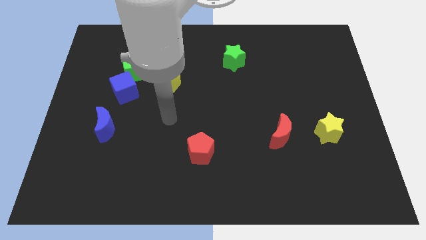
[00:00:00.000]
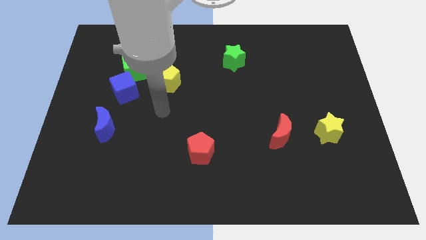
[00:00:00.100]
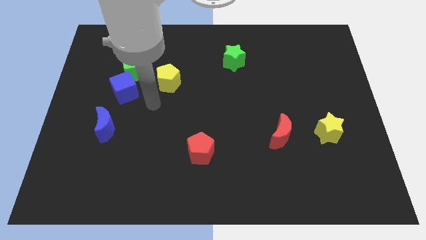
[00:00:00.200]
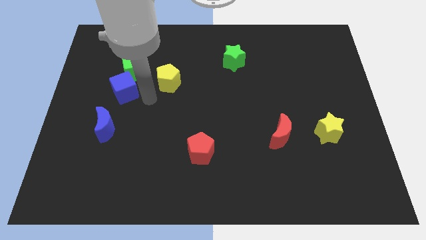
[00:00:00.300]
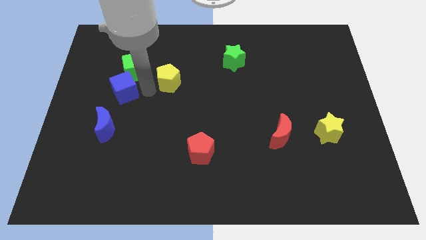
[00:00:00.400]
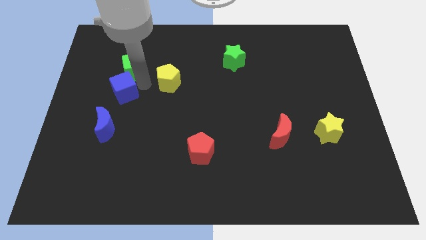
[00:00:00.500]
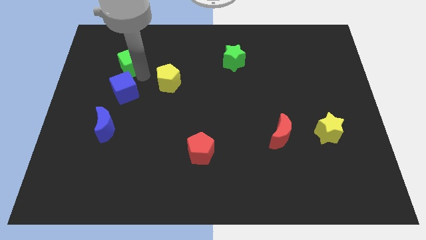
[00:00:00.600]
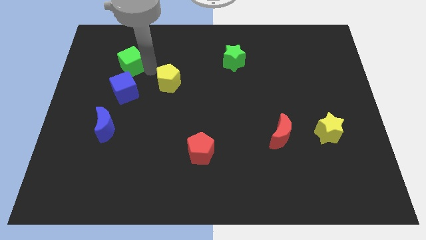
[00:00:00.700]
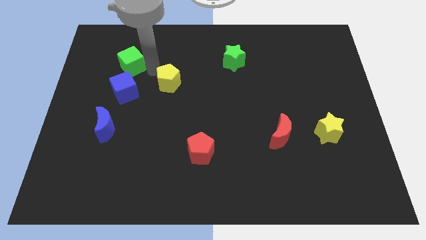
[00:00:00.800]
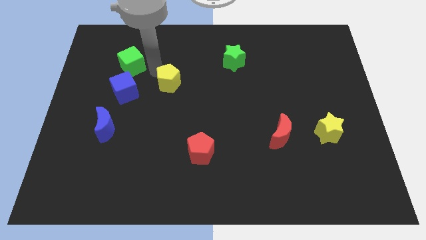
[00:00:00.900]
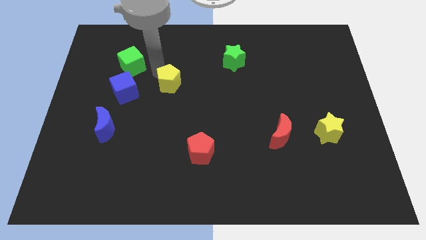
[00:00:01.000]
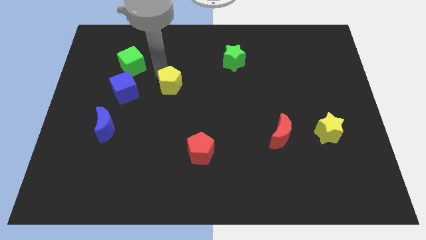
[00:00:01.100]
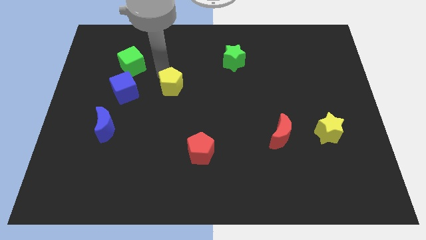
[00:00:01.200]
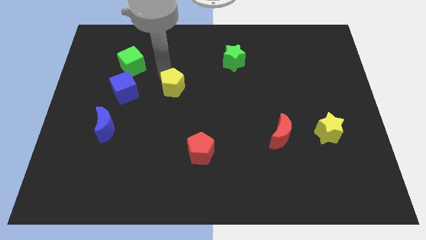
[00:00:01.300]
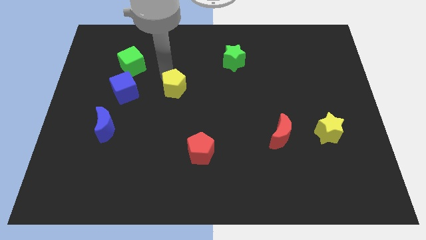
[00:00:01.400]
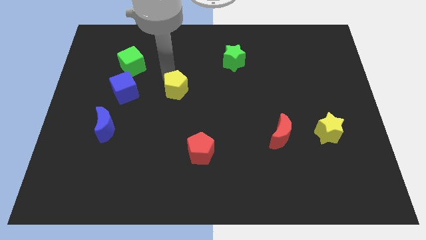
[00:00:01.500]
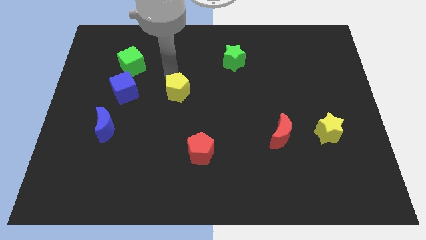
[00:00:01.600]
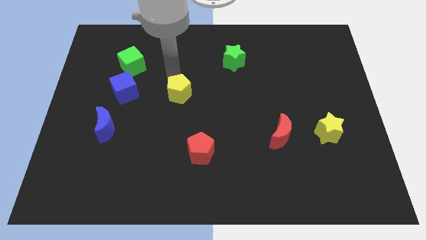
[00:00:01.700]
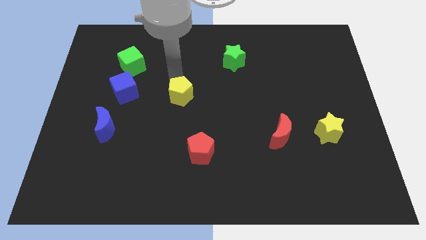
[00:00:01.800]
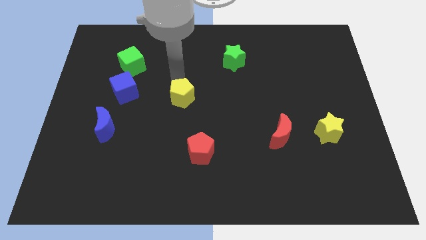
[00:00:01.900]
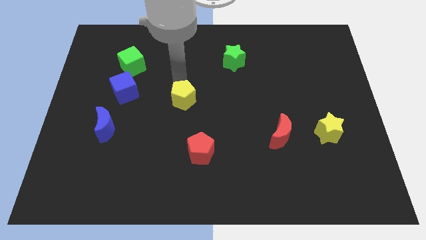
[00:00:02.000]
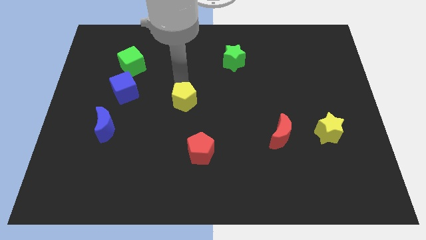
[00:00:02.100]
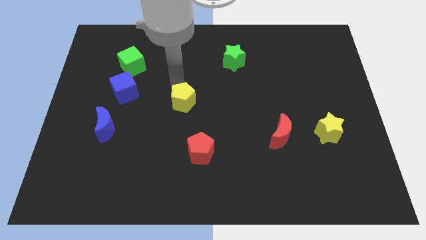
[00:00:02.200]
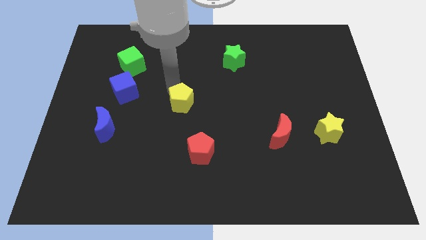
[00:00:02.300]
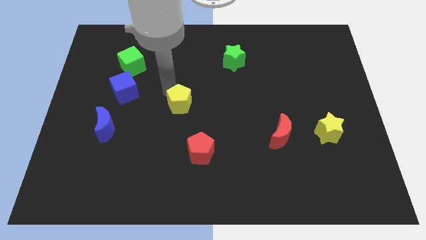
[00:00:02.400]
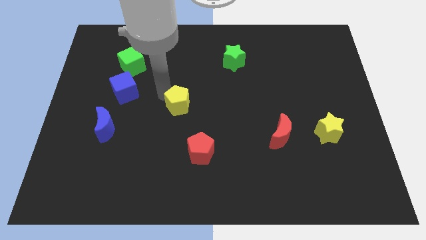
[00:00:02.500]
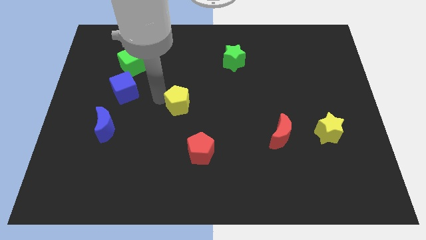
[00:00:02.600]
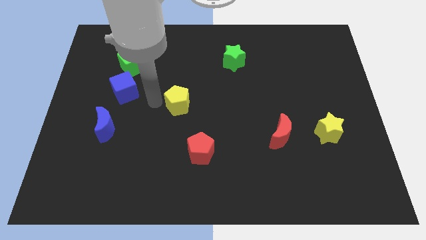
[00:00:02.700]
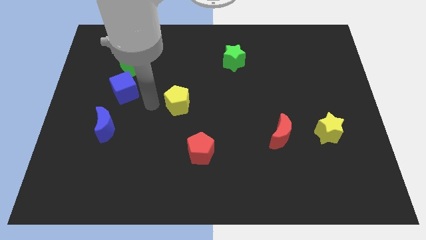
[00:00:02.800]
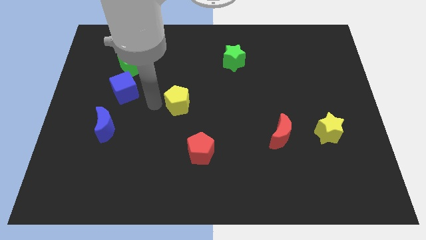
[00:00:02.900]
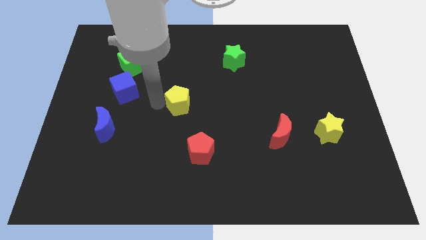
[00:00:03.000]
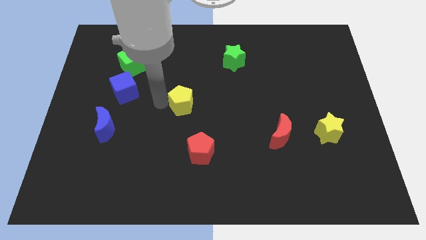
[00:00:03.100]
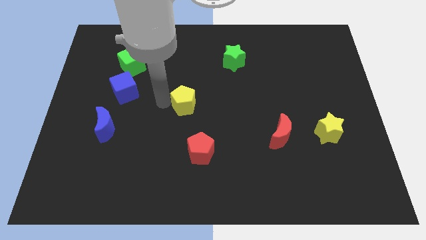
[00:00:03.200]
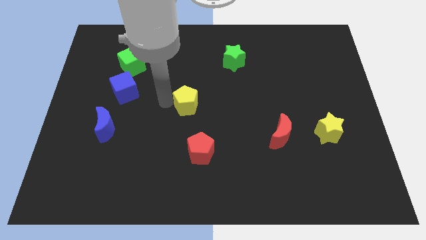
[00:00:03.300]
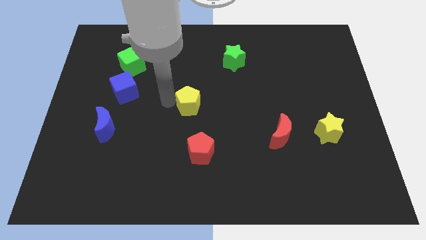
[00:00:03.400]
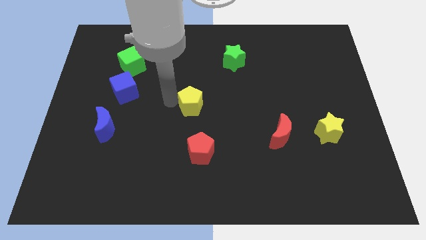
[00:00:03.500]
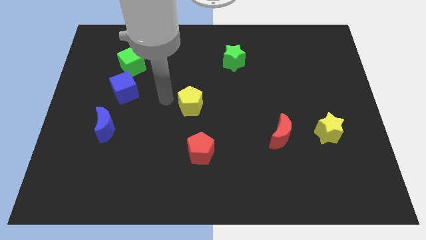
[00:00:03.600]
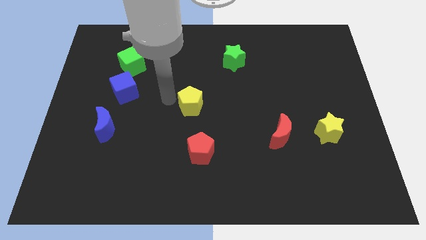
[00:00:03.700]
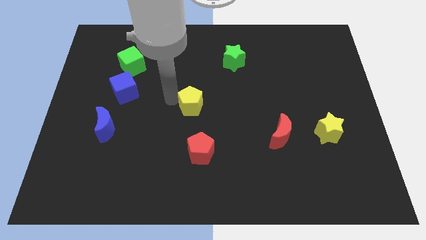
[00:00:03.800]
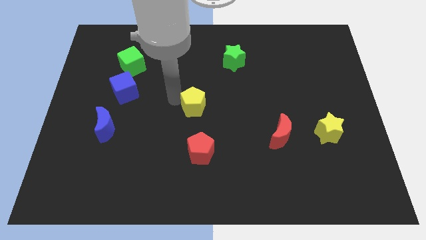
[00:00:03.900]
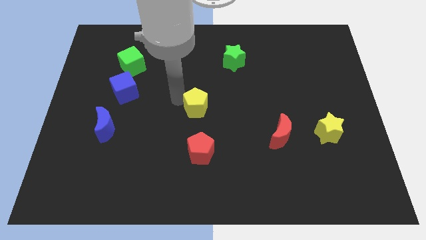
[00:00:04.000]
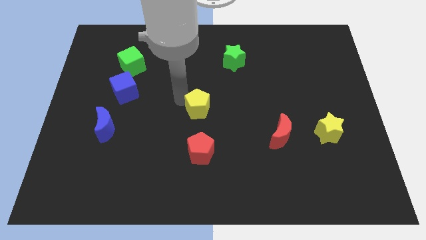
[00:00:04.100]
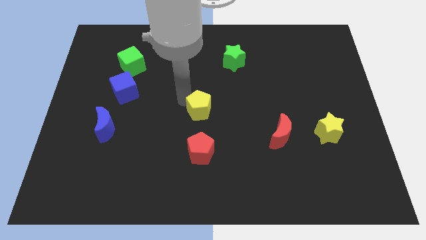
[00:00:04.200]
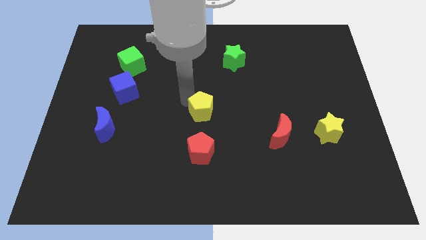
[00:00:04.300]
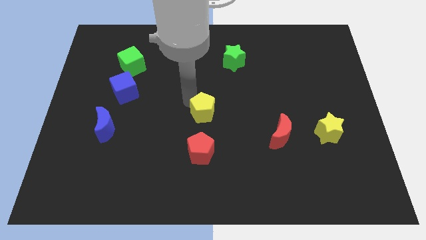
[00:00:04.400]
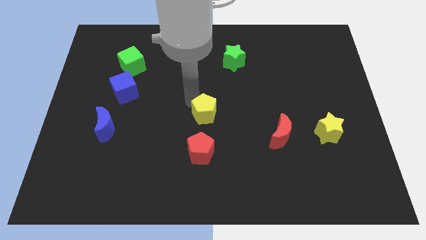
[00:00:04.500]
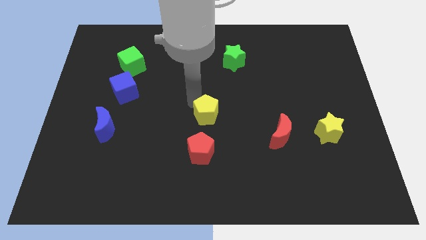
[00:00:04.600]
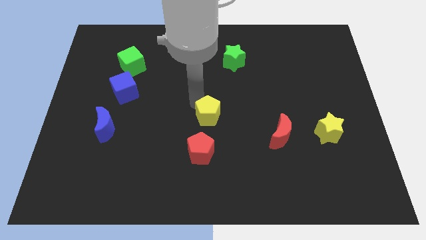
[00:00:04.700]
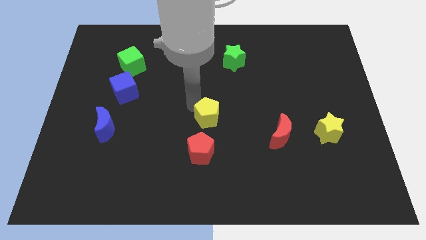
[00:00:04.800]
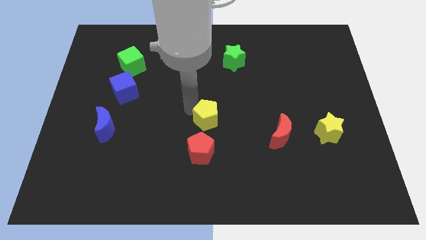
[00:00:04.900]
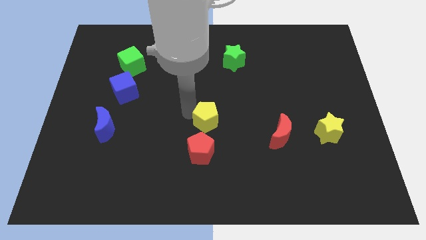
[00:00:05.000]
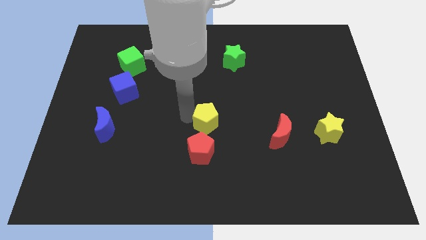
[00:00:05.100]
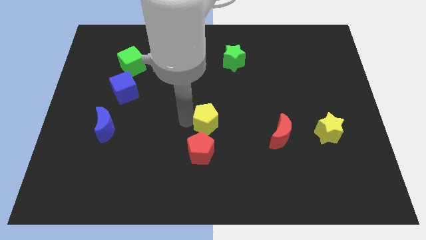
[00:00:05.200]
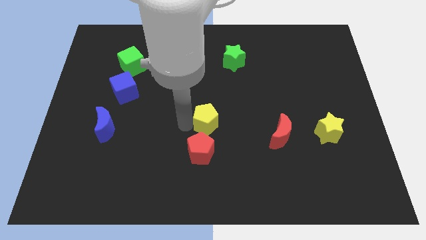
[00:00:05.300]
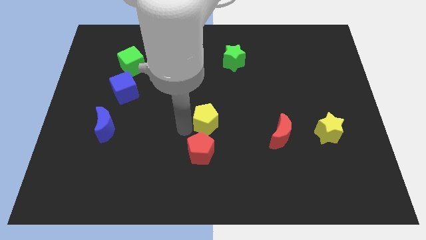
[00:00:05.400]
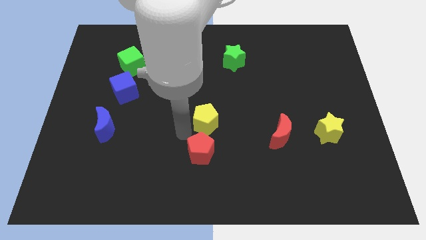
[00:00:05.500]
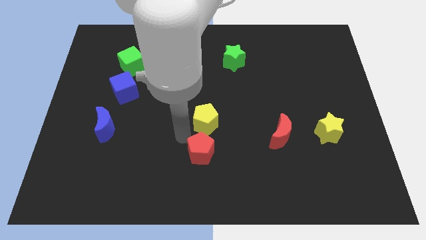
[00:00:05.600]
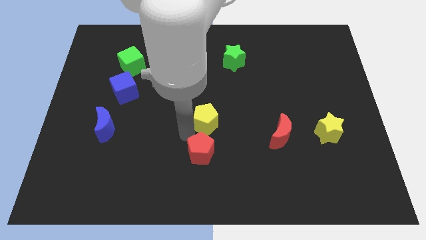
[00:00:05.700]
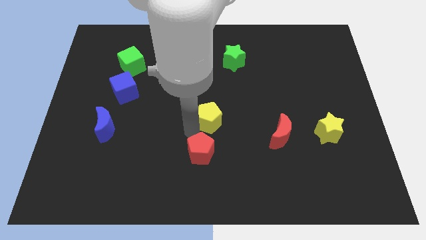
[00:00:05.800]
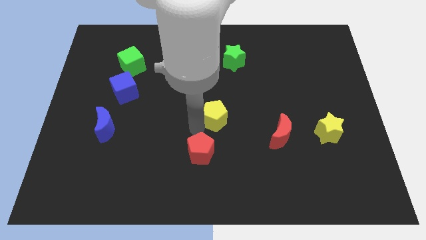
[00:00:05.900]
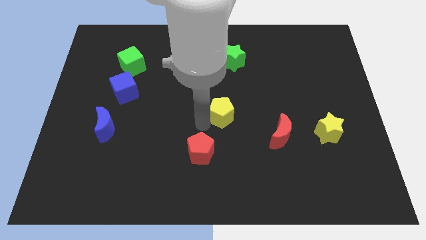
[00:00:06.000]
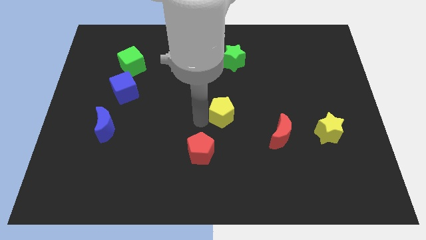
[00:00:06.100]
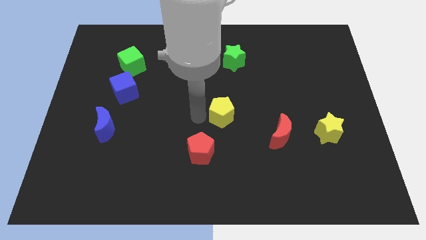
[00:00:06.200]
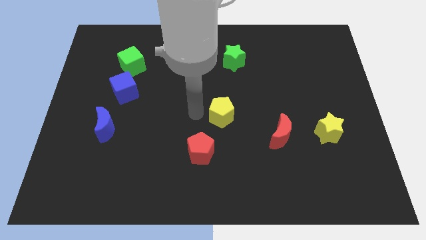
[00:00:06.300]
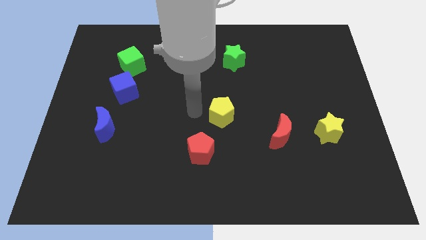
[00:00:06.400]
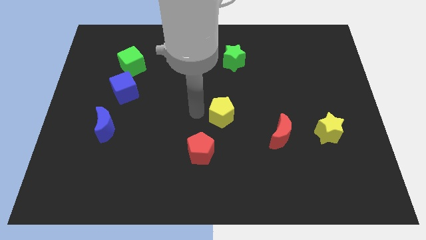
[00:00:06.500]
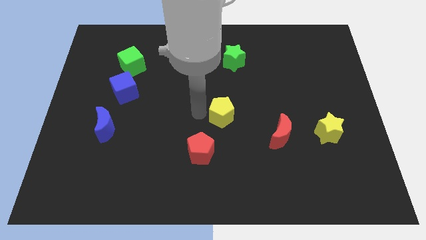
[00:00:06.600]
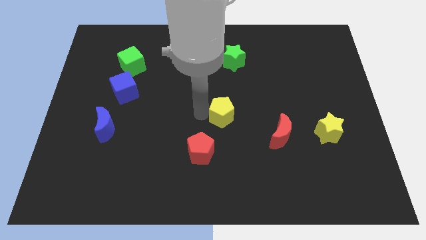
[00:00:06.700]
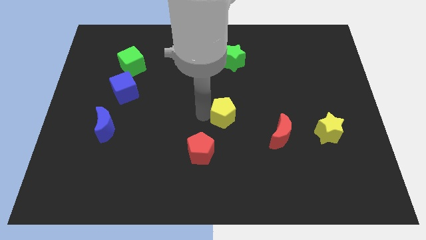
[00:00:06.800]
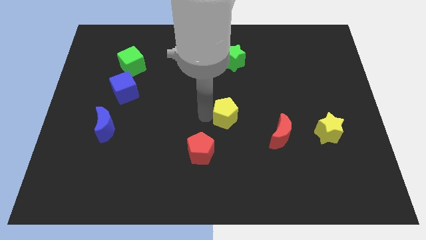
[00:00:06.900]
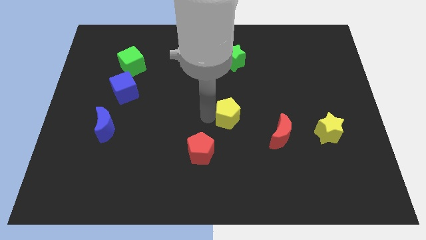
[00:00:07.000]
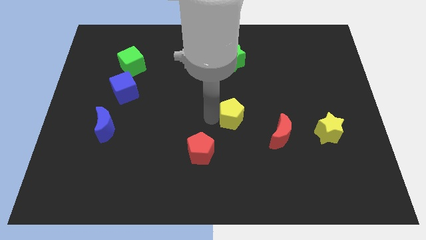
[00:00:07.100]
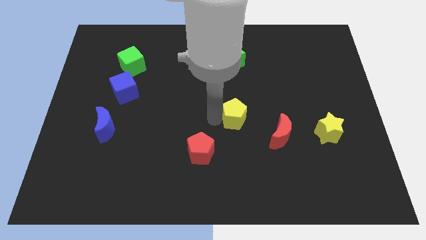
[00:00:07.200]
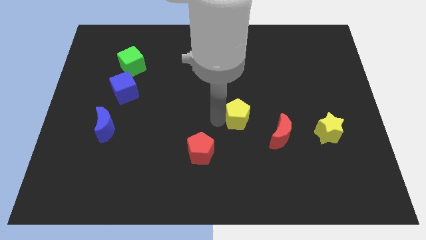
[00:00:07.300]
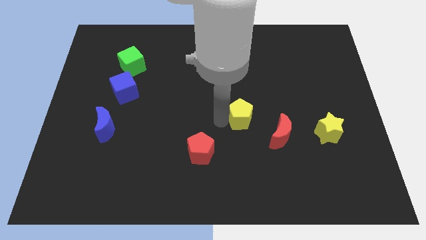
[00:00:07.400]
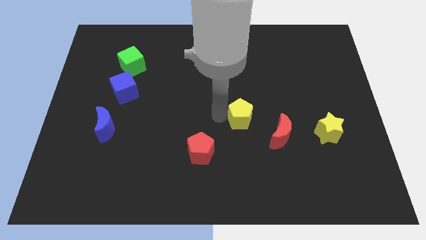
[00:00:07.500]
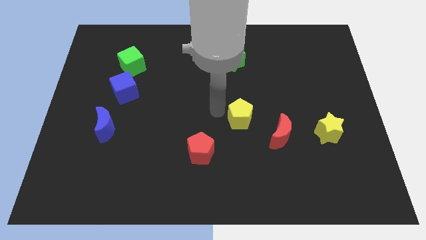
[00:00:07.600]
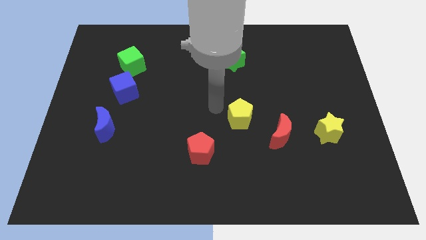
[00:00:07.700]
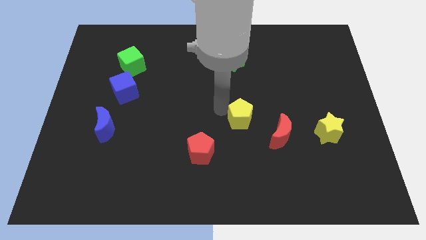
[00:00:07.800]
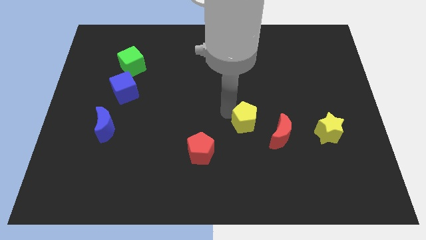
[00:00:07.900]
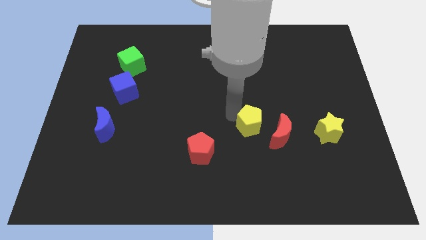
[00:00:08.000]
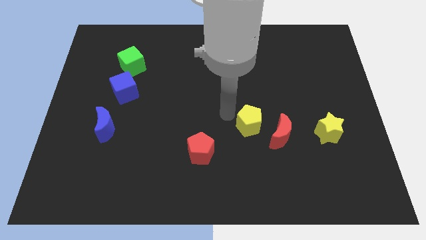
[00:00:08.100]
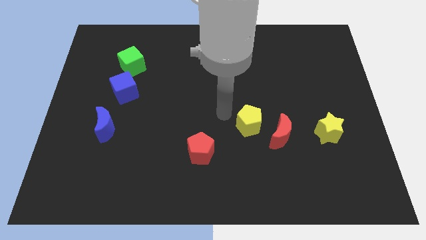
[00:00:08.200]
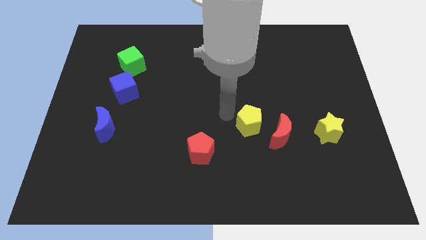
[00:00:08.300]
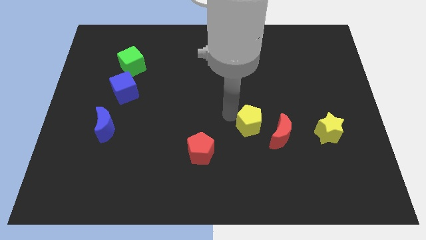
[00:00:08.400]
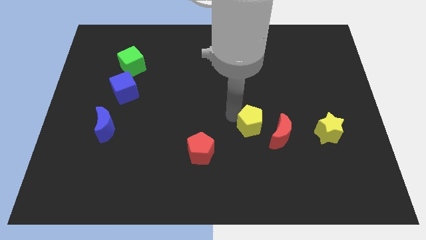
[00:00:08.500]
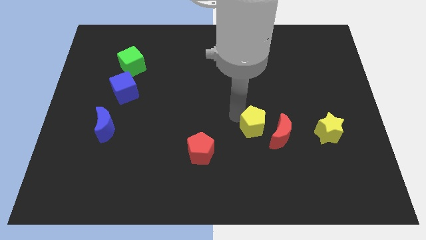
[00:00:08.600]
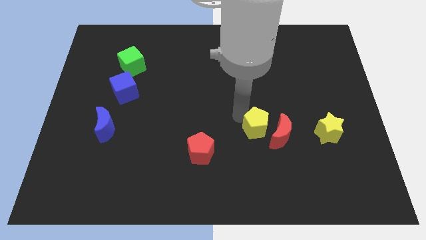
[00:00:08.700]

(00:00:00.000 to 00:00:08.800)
move the yellow pentagon to the red moon
